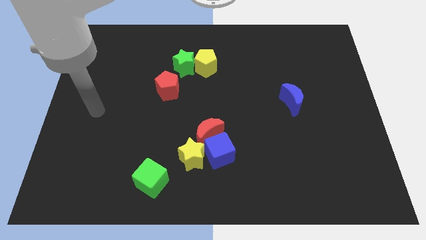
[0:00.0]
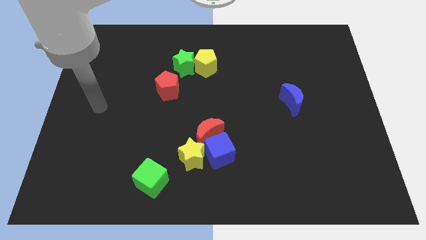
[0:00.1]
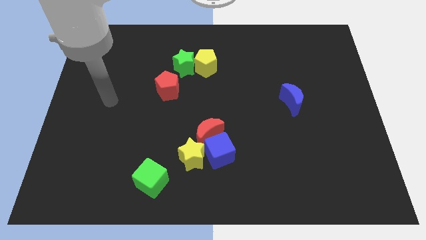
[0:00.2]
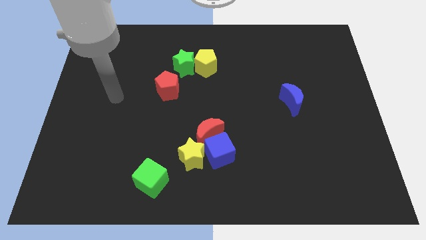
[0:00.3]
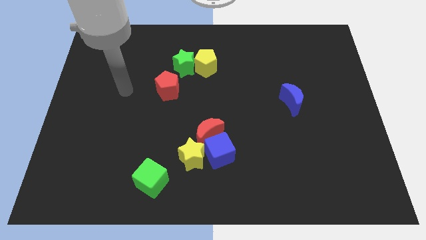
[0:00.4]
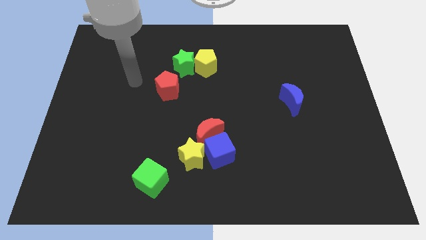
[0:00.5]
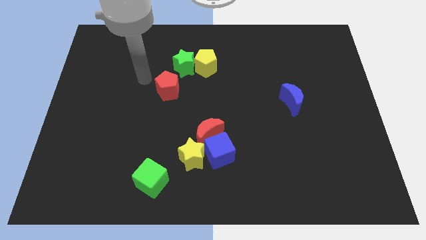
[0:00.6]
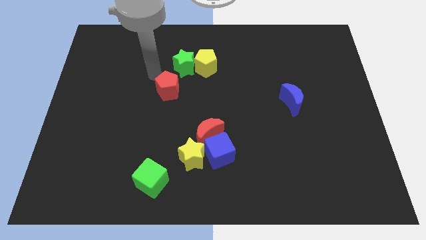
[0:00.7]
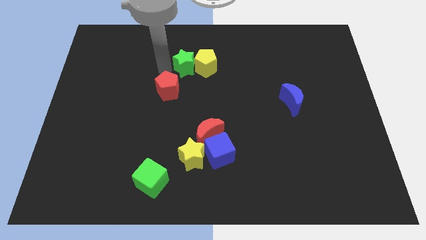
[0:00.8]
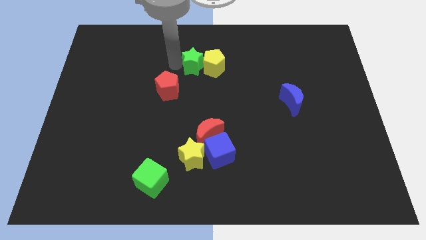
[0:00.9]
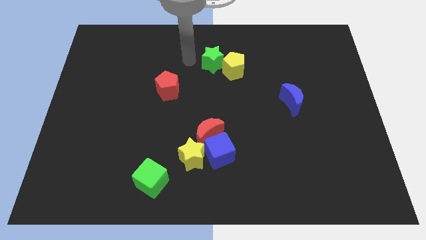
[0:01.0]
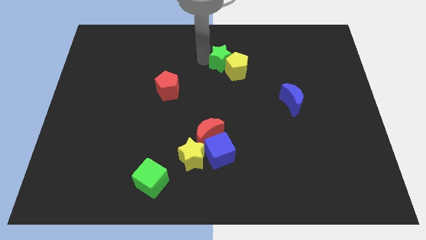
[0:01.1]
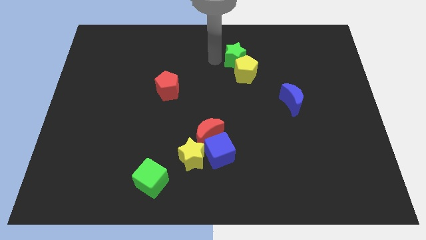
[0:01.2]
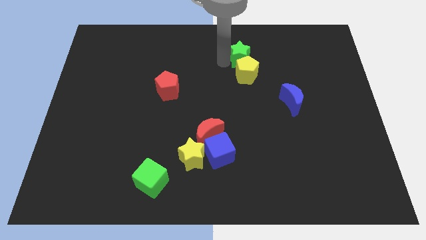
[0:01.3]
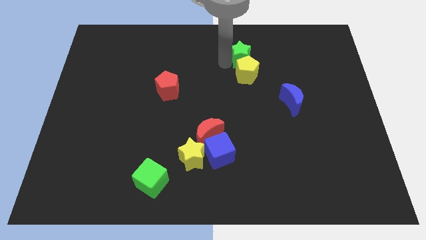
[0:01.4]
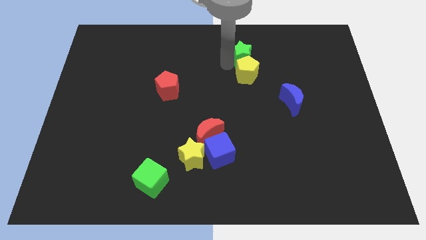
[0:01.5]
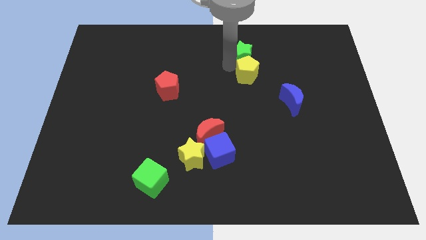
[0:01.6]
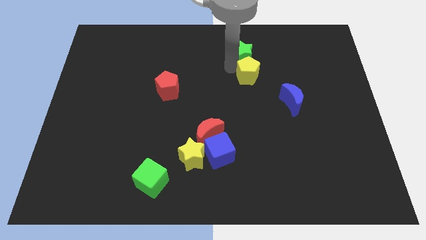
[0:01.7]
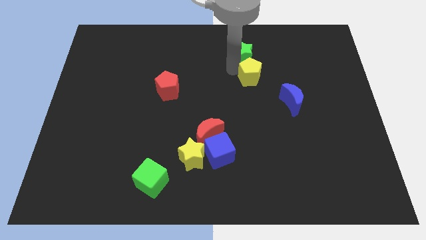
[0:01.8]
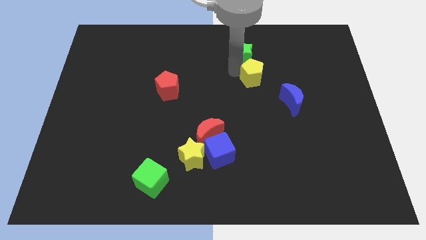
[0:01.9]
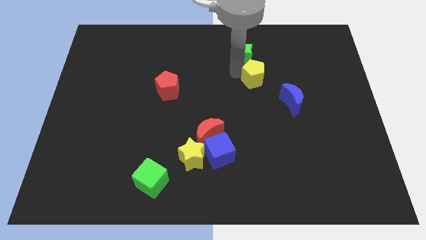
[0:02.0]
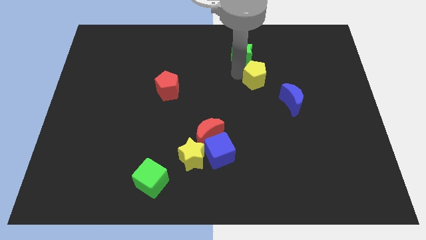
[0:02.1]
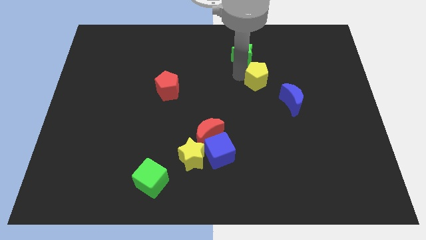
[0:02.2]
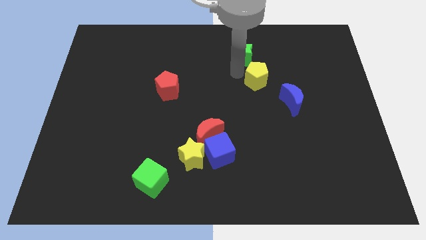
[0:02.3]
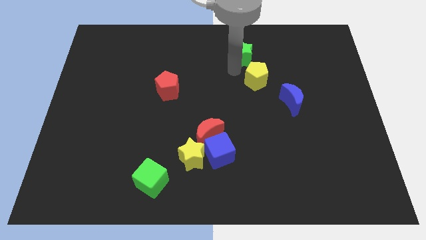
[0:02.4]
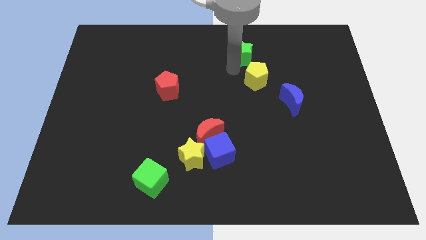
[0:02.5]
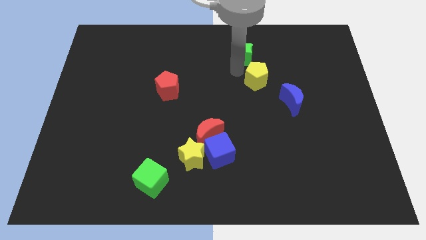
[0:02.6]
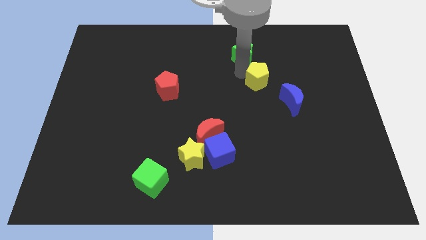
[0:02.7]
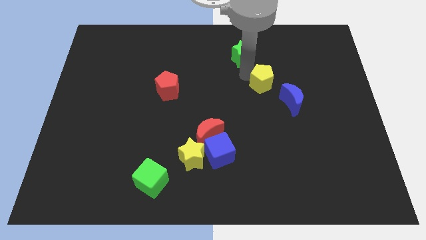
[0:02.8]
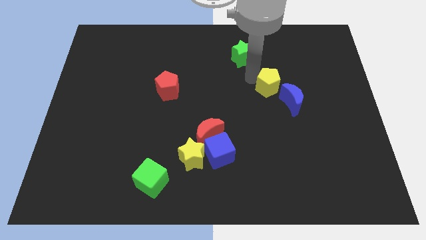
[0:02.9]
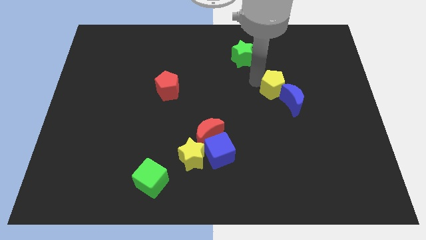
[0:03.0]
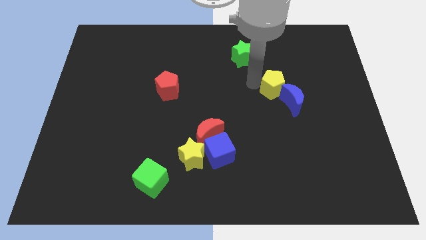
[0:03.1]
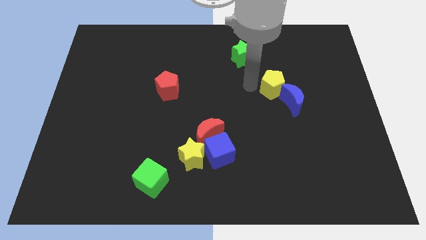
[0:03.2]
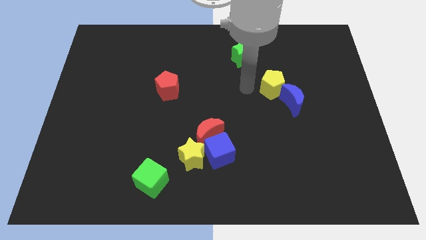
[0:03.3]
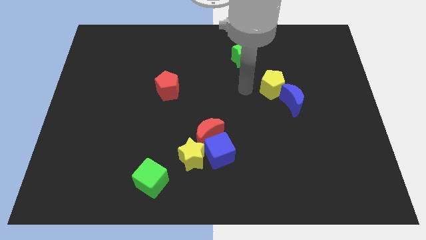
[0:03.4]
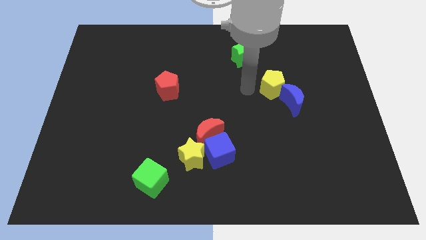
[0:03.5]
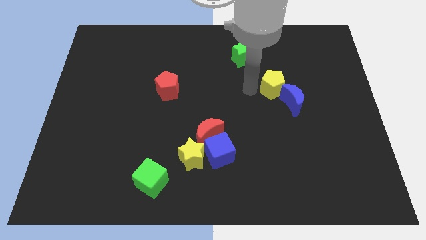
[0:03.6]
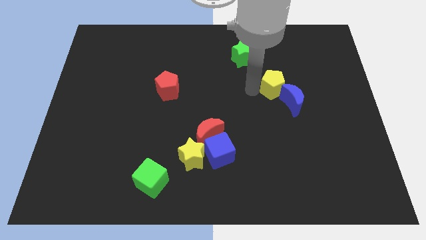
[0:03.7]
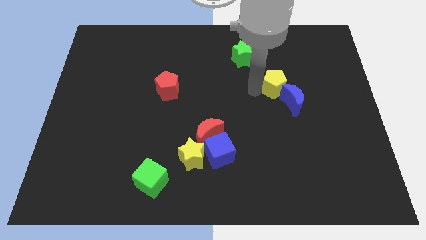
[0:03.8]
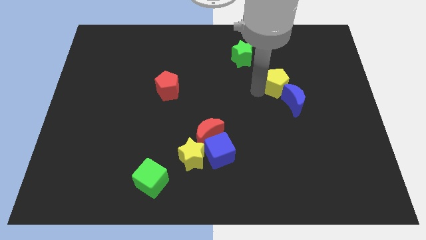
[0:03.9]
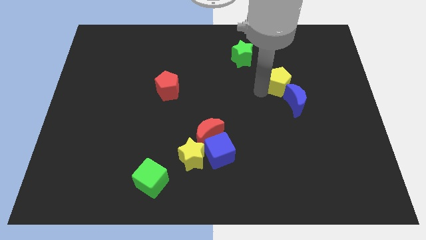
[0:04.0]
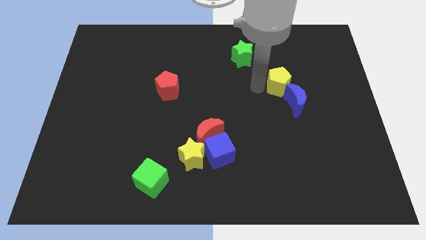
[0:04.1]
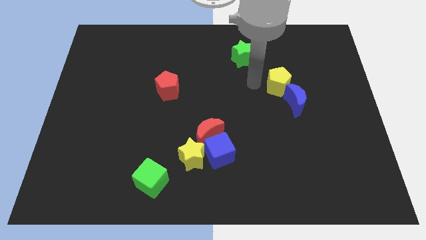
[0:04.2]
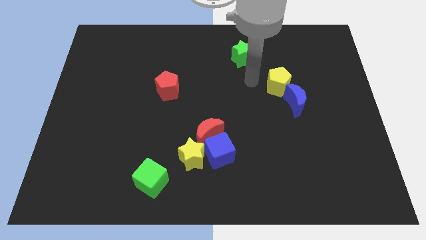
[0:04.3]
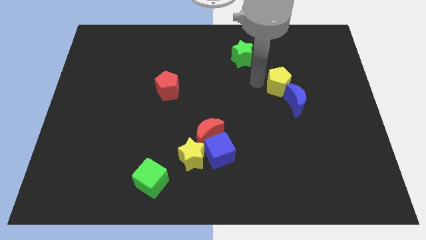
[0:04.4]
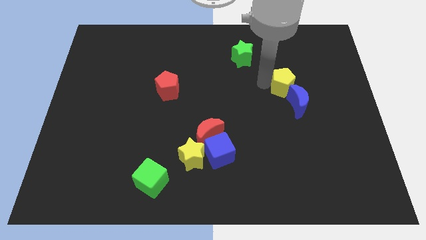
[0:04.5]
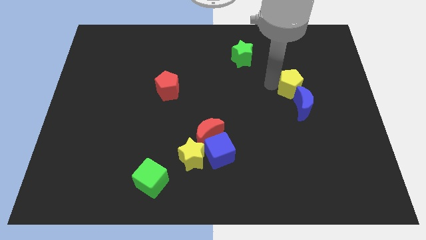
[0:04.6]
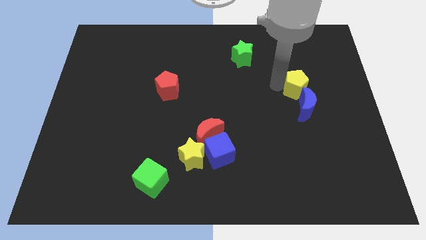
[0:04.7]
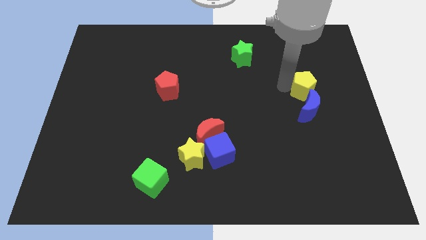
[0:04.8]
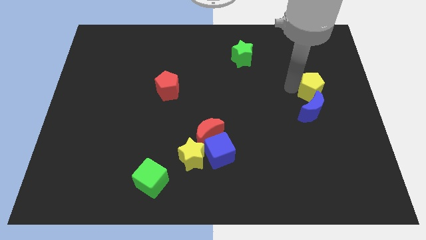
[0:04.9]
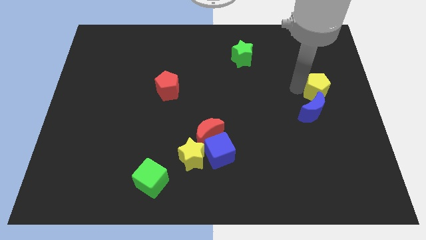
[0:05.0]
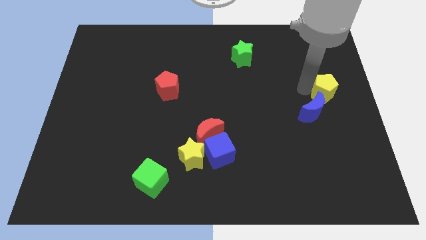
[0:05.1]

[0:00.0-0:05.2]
slide the yellow pentagon to the right side of the board

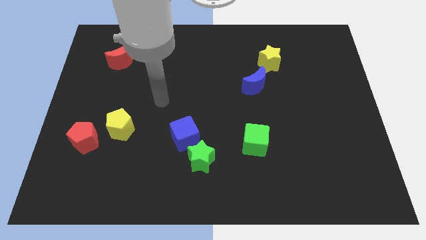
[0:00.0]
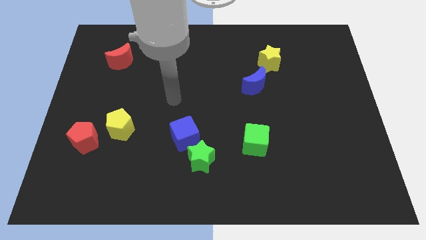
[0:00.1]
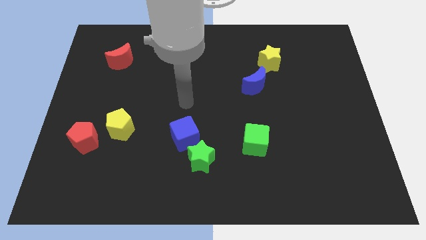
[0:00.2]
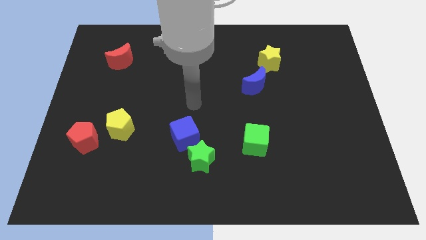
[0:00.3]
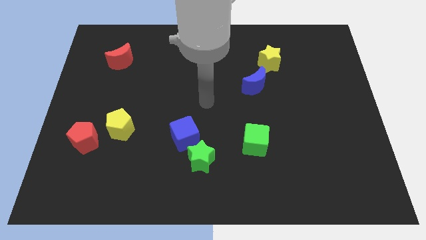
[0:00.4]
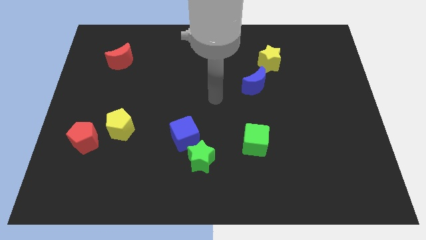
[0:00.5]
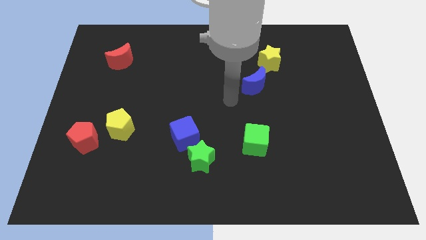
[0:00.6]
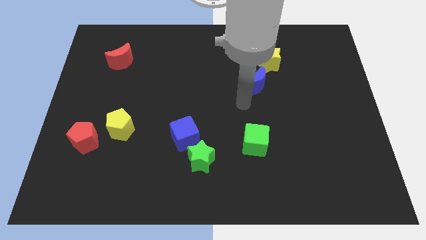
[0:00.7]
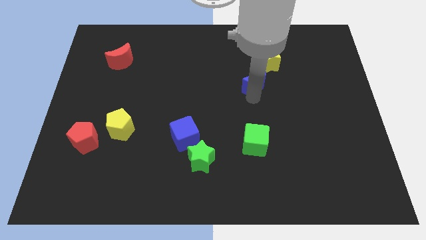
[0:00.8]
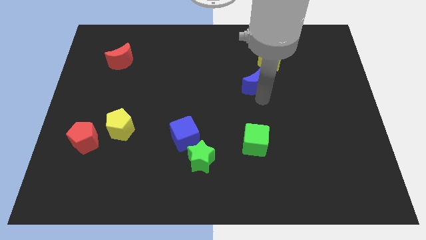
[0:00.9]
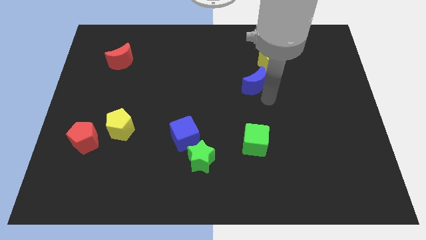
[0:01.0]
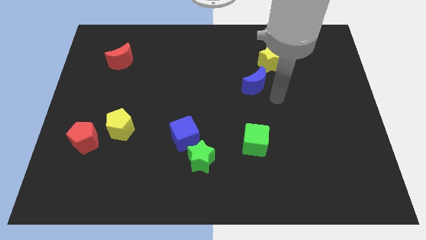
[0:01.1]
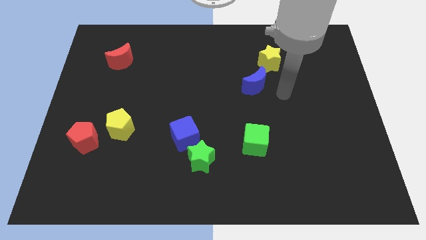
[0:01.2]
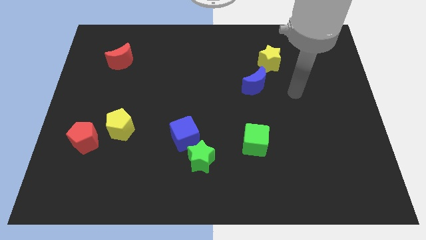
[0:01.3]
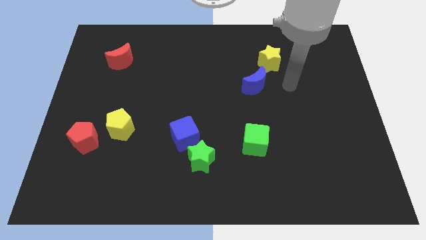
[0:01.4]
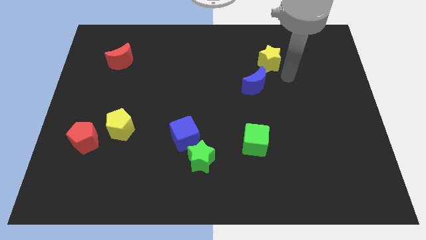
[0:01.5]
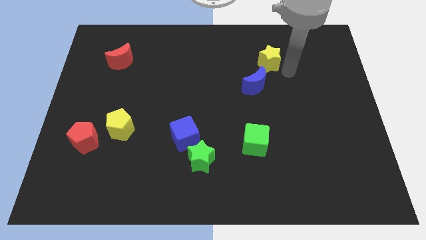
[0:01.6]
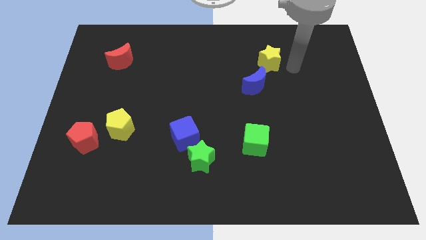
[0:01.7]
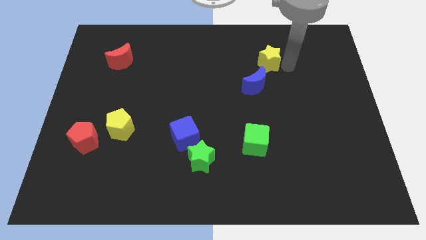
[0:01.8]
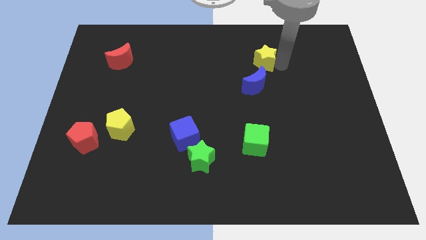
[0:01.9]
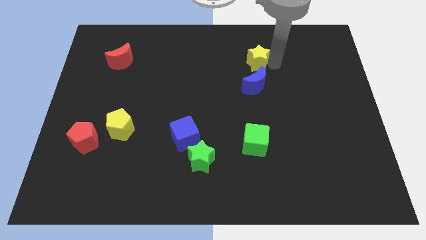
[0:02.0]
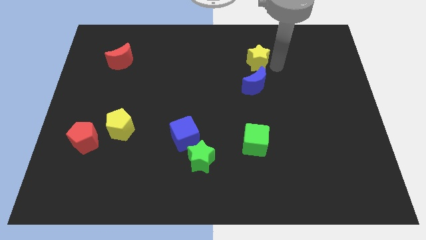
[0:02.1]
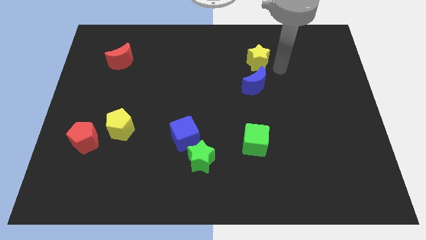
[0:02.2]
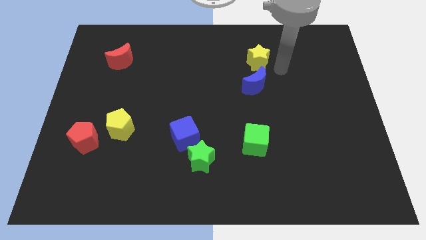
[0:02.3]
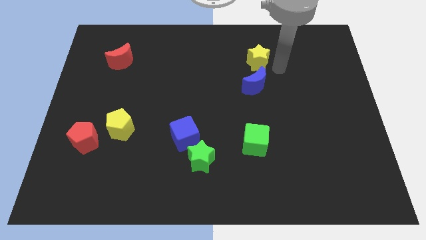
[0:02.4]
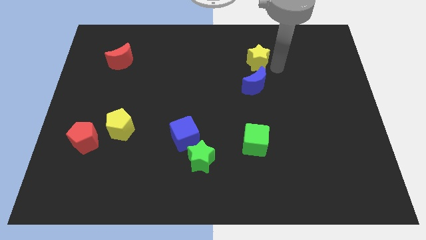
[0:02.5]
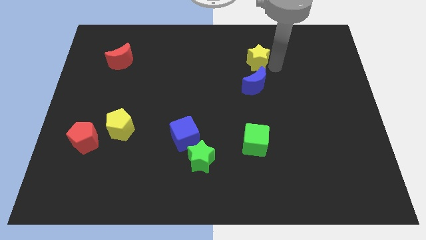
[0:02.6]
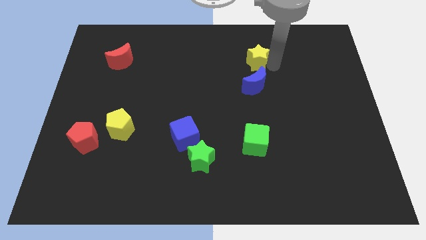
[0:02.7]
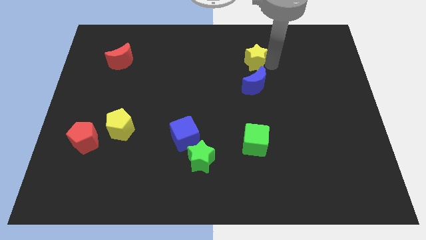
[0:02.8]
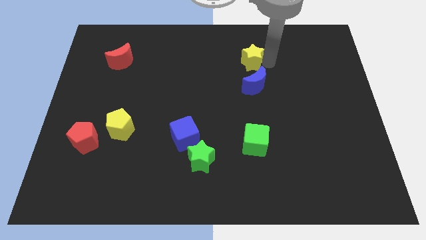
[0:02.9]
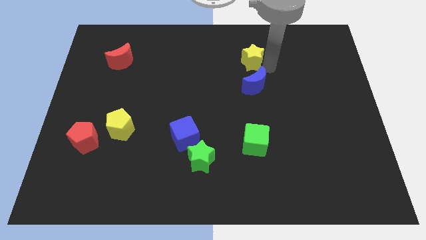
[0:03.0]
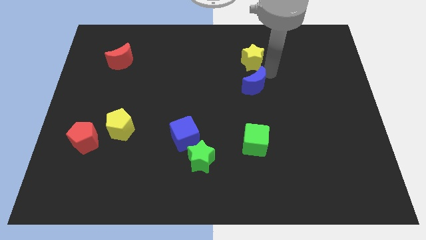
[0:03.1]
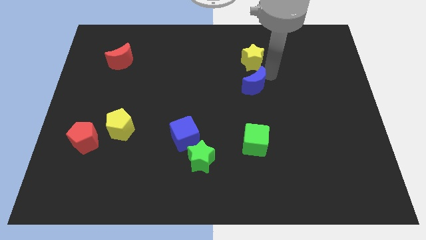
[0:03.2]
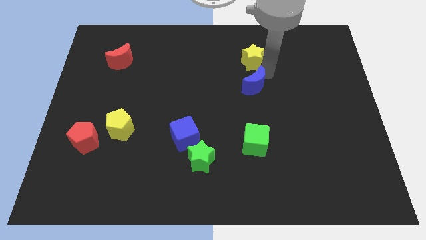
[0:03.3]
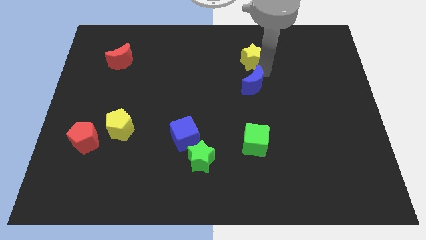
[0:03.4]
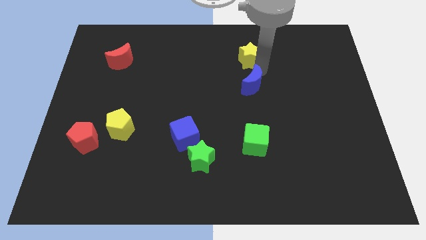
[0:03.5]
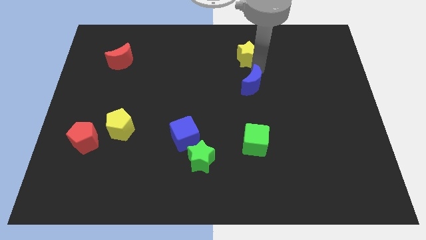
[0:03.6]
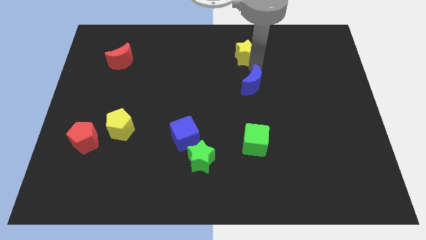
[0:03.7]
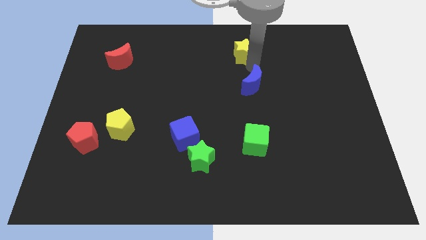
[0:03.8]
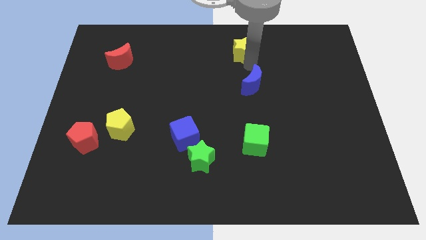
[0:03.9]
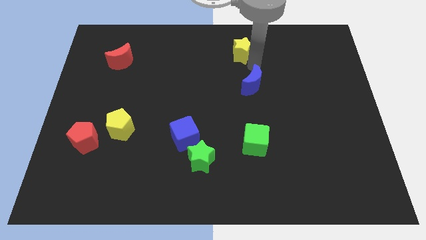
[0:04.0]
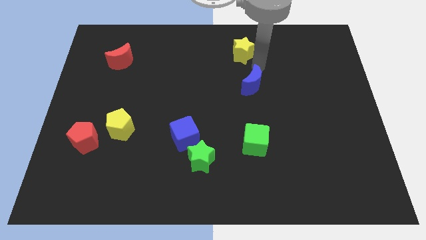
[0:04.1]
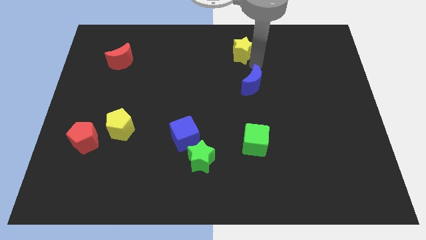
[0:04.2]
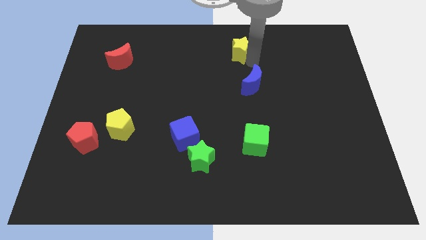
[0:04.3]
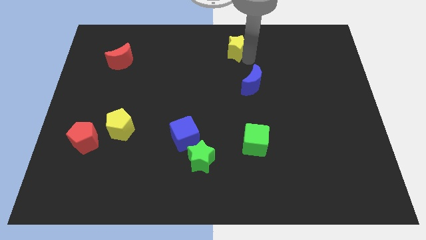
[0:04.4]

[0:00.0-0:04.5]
put the yellow star to the towards your base
